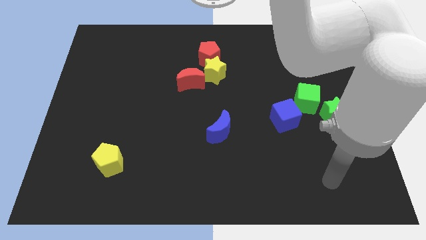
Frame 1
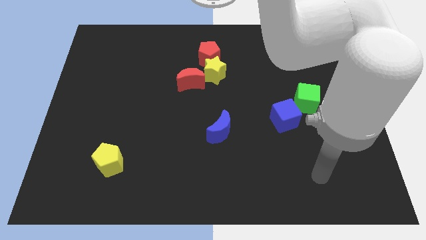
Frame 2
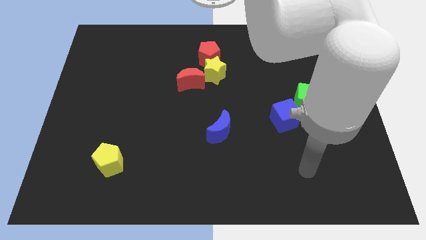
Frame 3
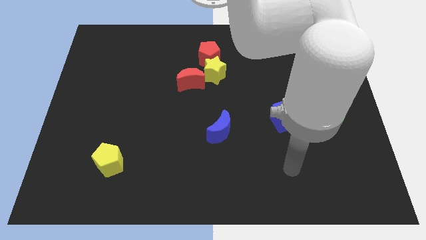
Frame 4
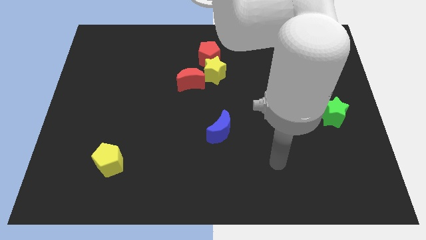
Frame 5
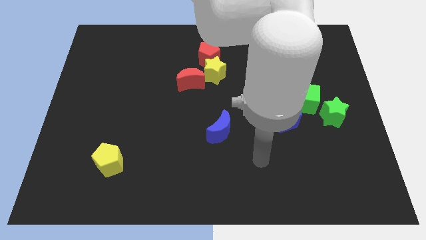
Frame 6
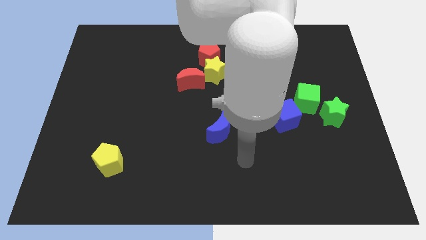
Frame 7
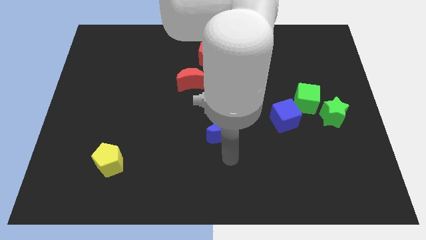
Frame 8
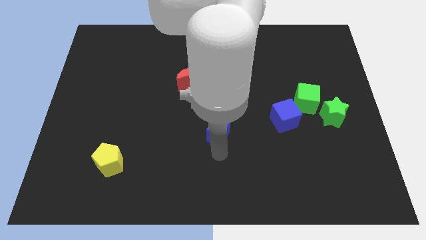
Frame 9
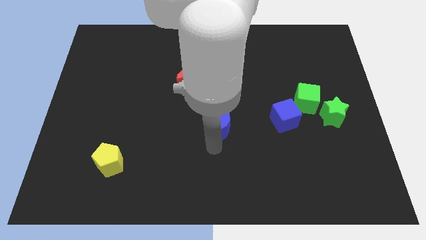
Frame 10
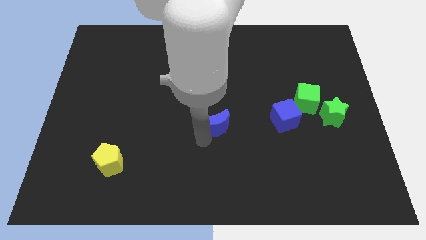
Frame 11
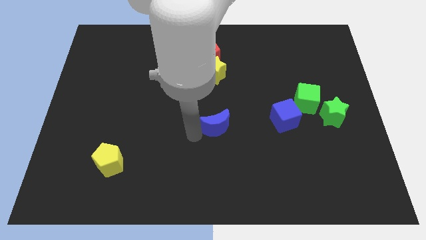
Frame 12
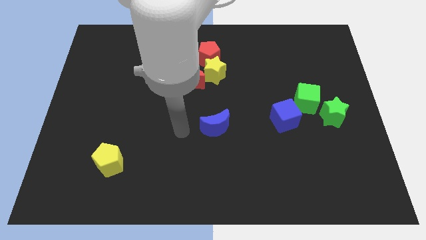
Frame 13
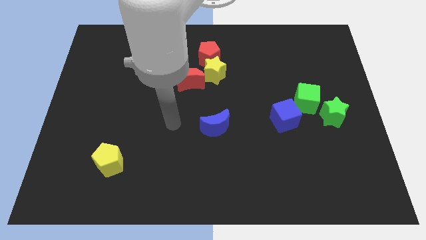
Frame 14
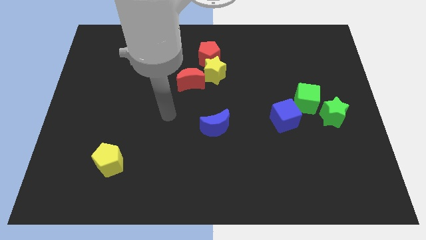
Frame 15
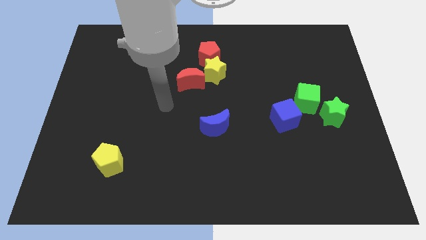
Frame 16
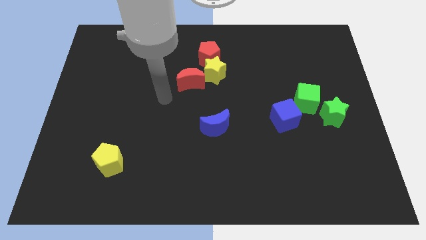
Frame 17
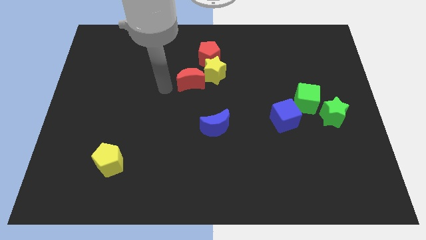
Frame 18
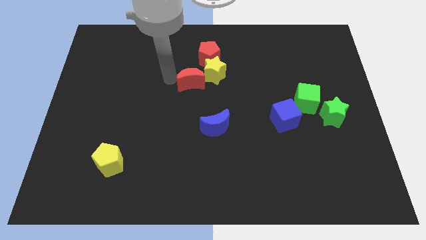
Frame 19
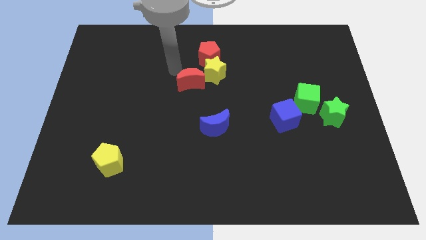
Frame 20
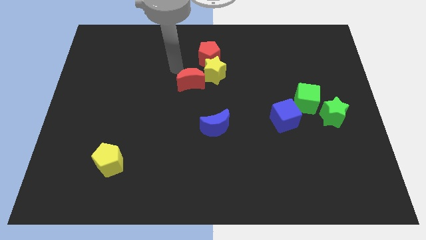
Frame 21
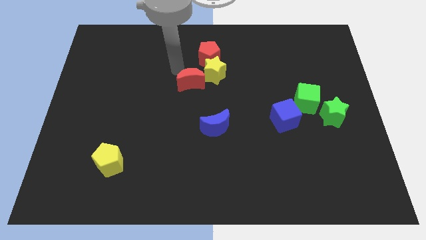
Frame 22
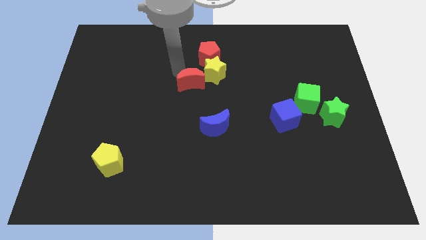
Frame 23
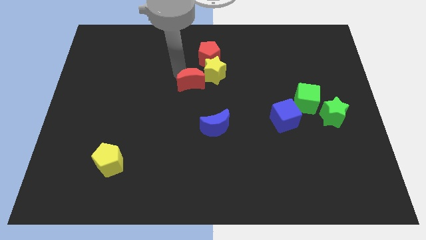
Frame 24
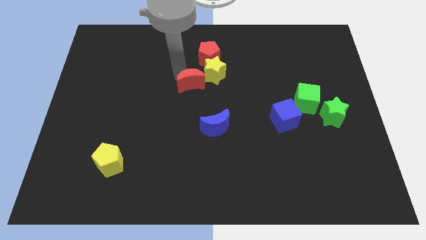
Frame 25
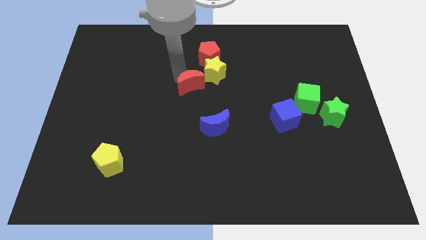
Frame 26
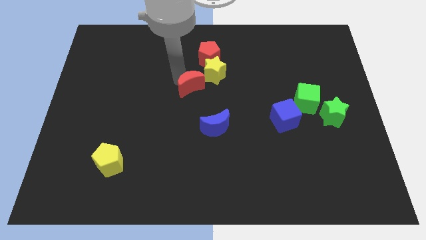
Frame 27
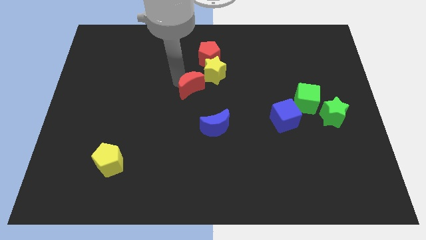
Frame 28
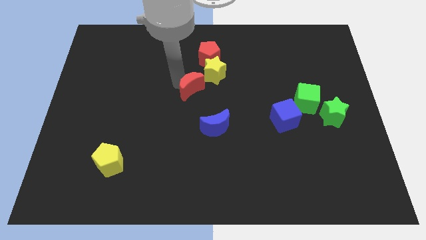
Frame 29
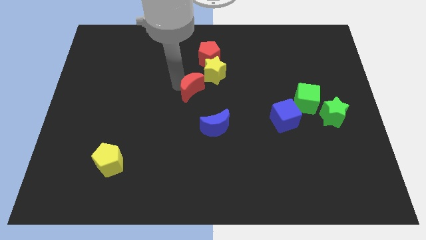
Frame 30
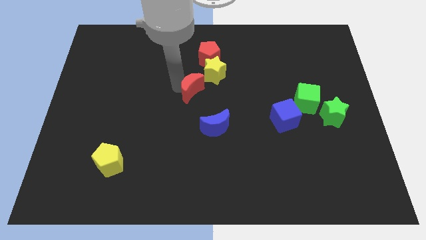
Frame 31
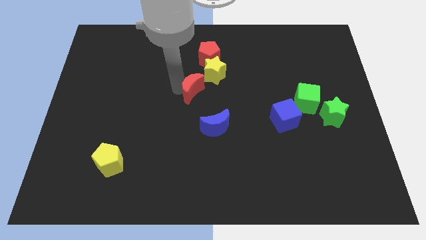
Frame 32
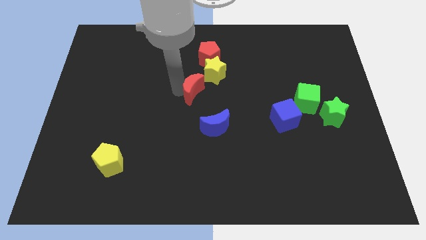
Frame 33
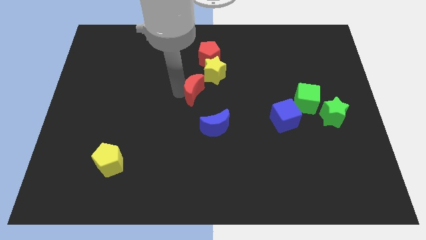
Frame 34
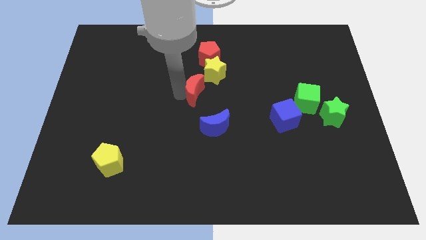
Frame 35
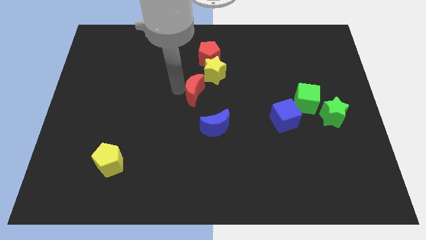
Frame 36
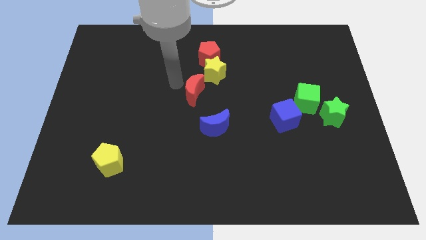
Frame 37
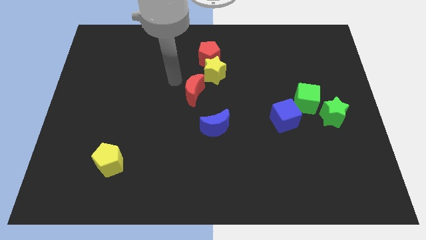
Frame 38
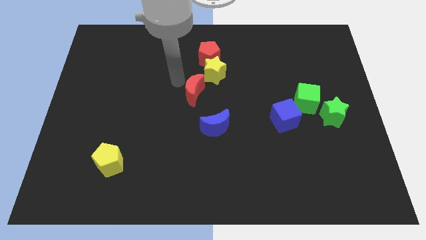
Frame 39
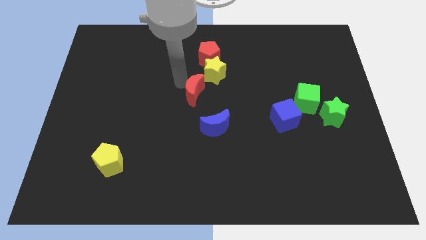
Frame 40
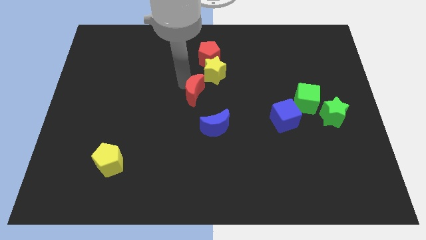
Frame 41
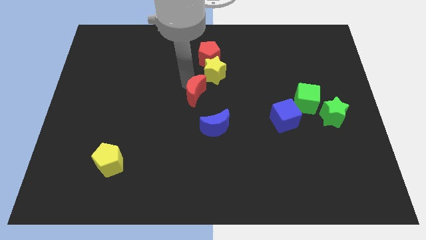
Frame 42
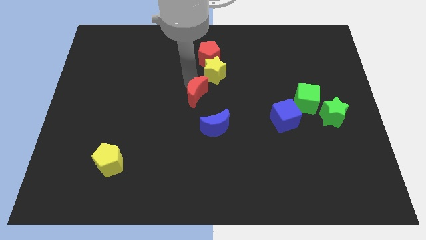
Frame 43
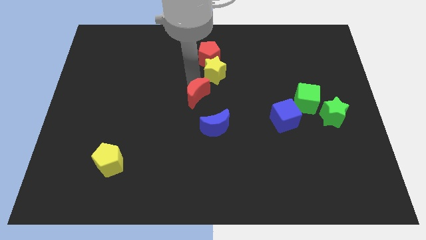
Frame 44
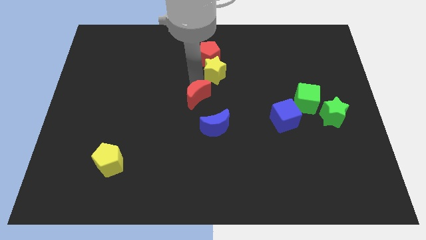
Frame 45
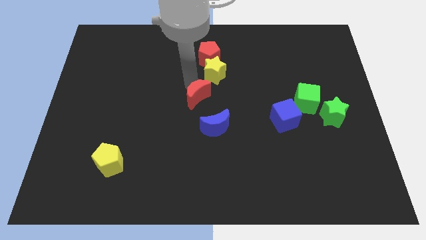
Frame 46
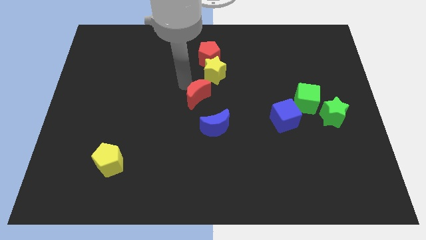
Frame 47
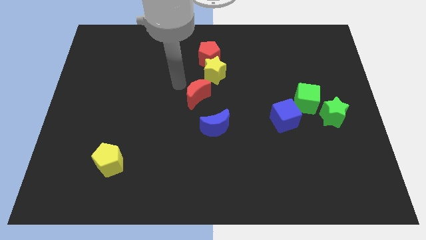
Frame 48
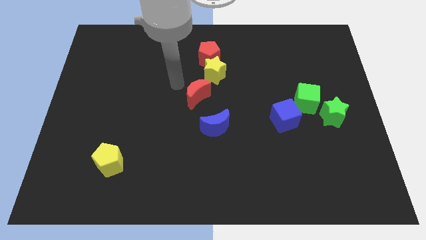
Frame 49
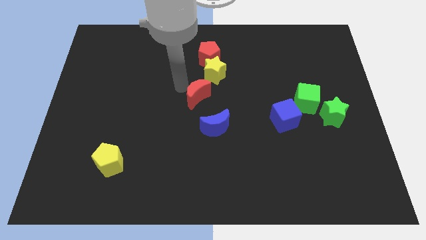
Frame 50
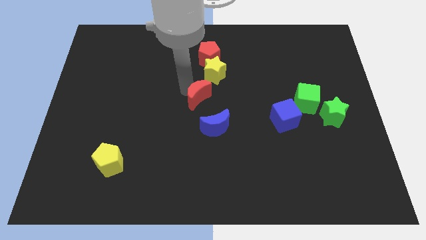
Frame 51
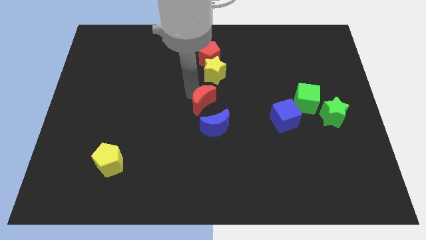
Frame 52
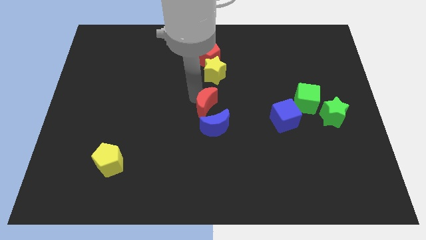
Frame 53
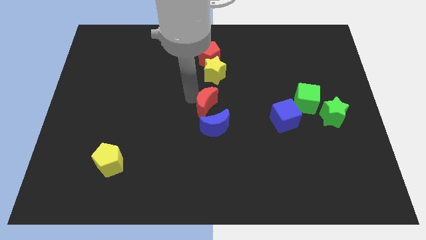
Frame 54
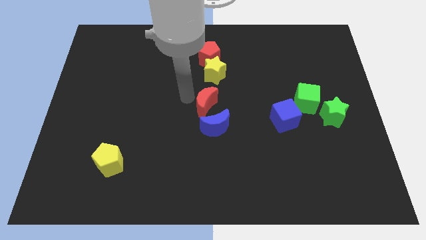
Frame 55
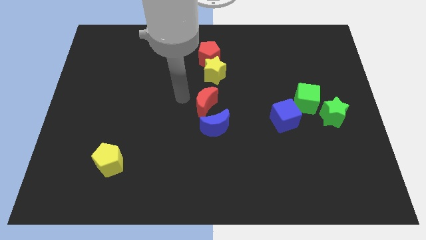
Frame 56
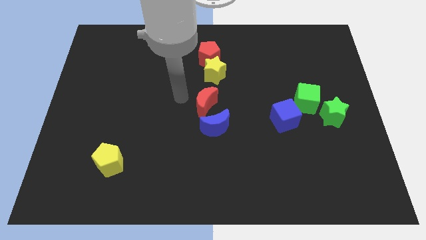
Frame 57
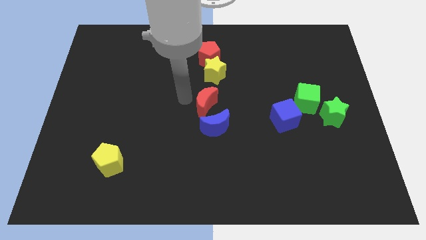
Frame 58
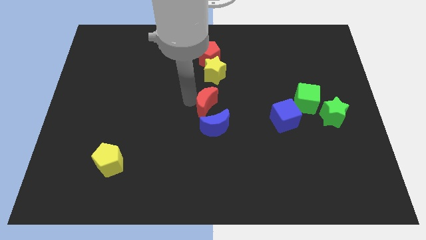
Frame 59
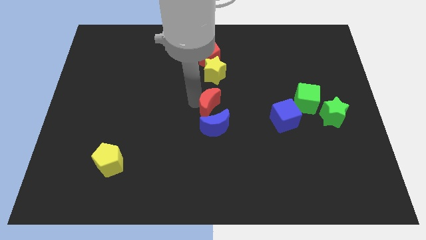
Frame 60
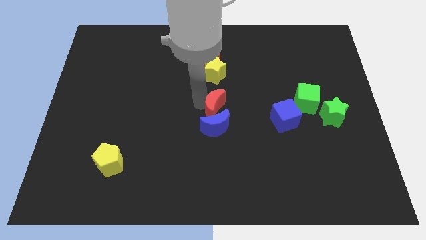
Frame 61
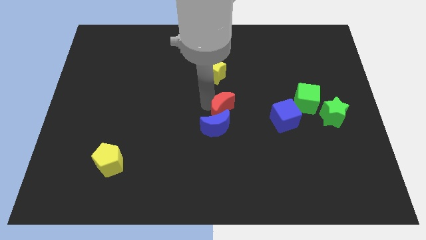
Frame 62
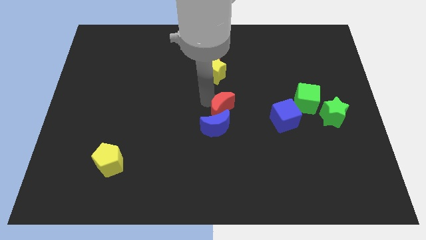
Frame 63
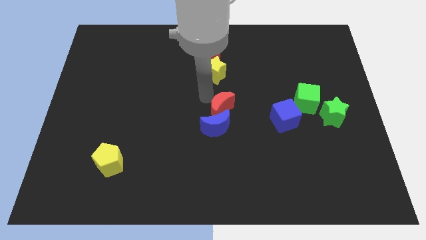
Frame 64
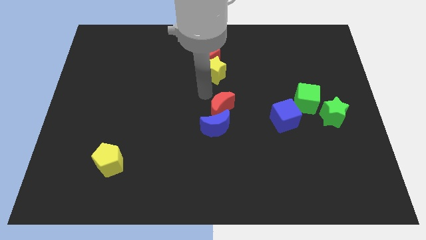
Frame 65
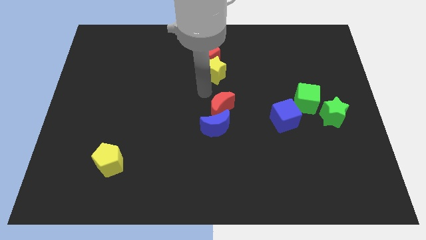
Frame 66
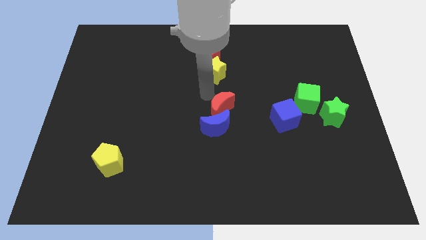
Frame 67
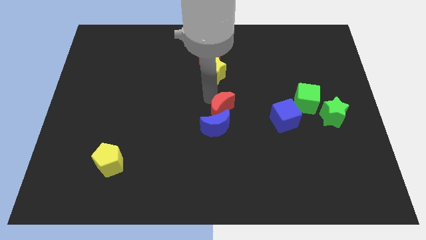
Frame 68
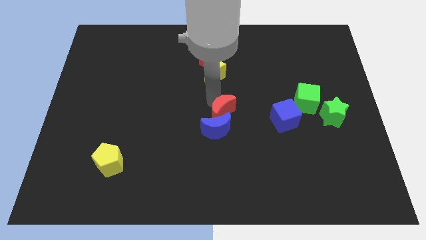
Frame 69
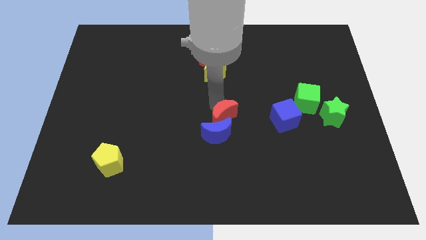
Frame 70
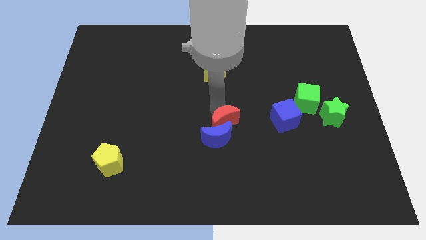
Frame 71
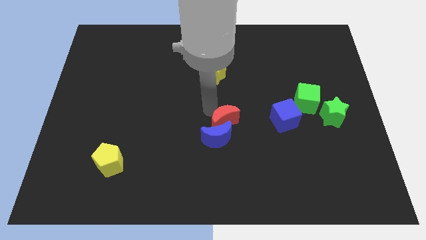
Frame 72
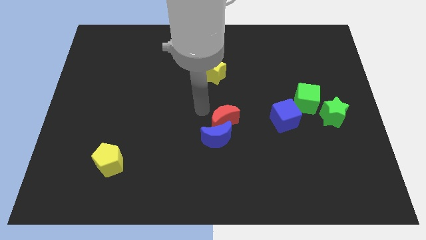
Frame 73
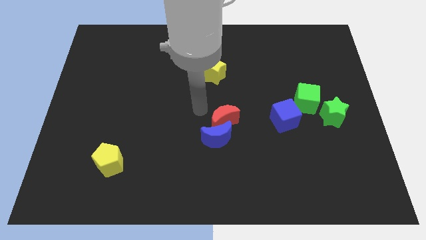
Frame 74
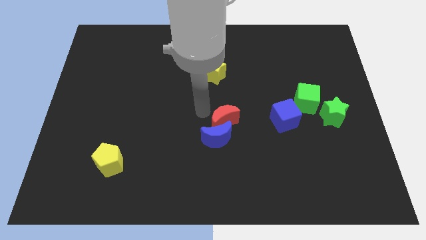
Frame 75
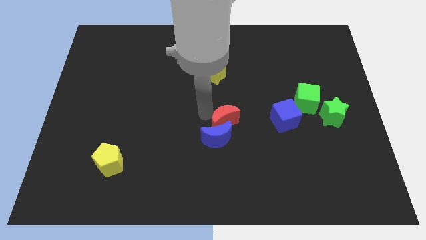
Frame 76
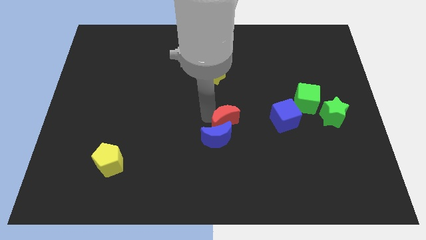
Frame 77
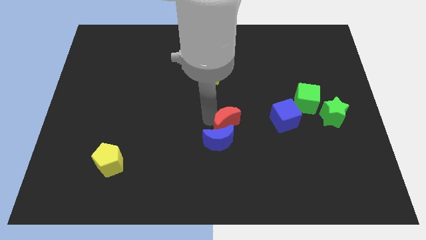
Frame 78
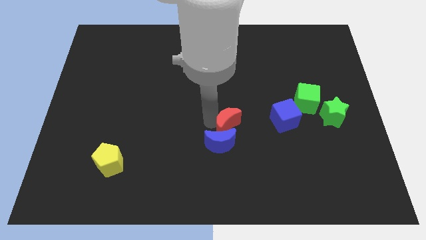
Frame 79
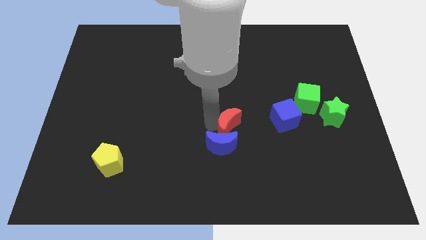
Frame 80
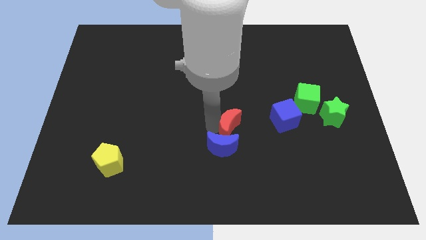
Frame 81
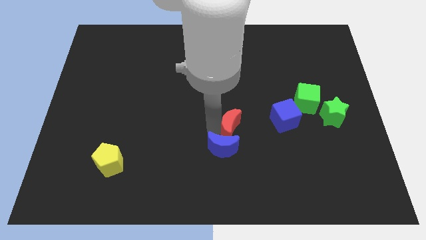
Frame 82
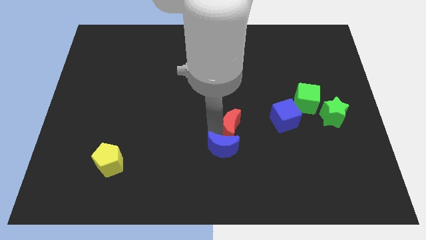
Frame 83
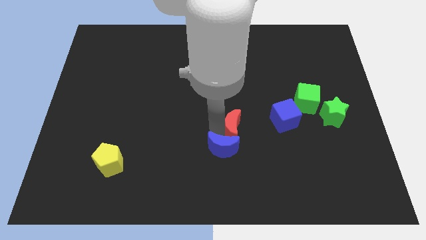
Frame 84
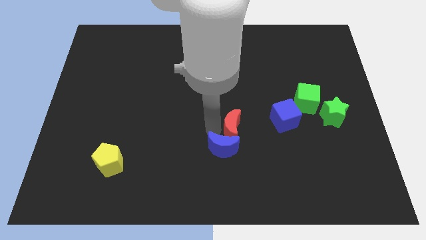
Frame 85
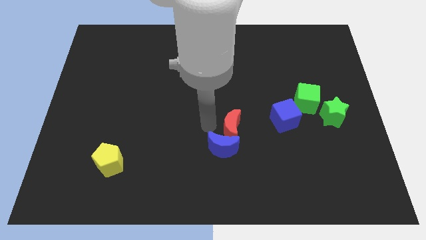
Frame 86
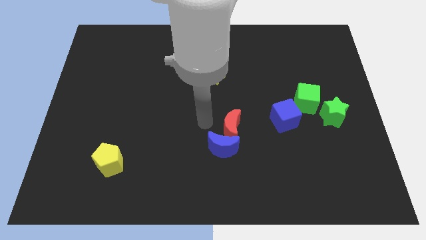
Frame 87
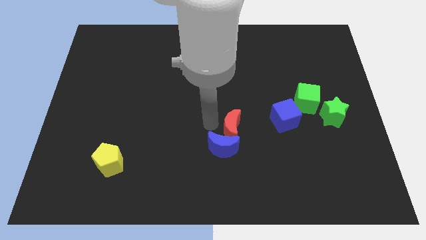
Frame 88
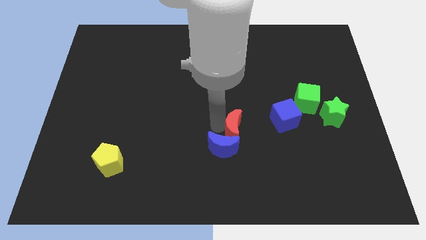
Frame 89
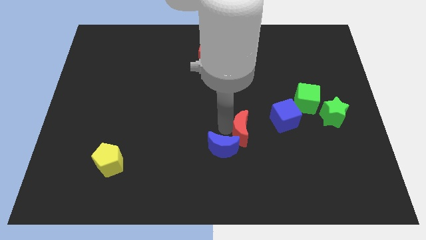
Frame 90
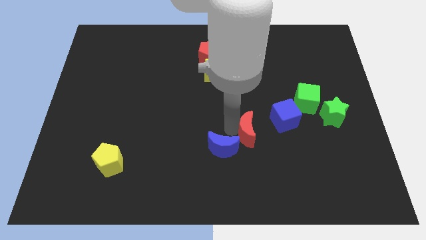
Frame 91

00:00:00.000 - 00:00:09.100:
push the red moon downwards and to the right
